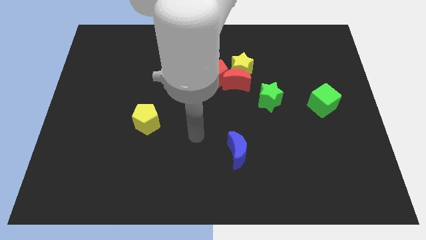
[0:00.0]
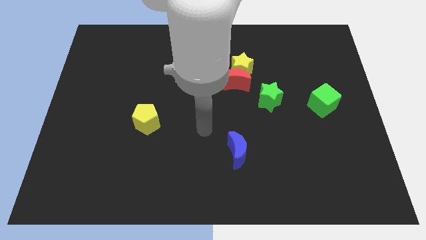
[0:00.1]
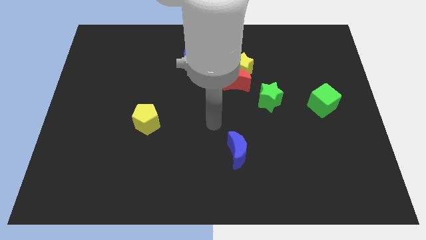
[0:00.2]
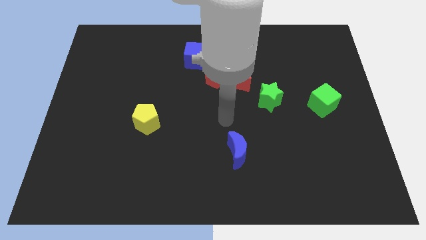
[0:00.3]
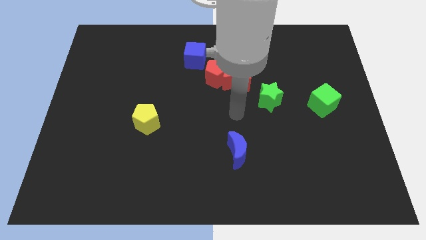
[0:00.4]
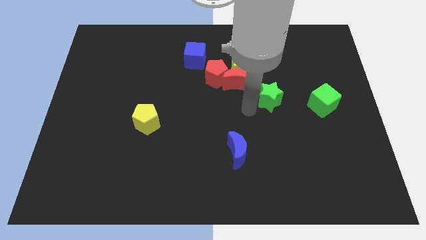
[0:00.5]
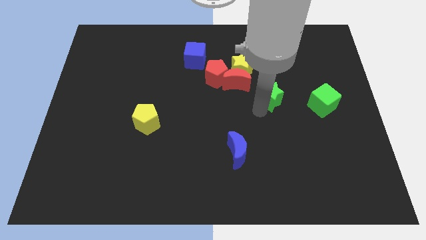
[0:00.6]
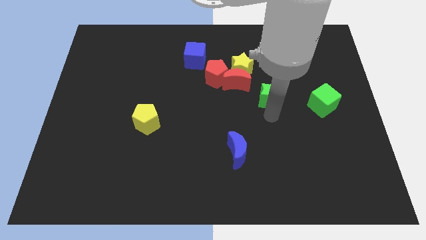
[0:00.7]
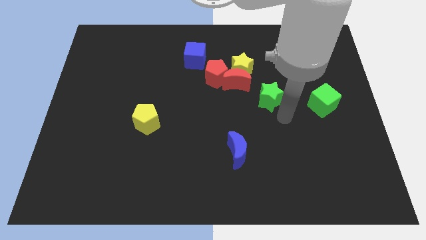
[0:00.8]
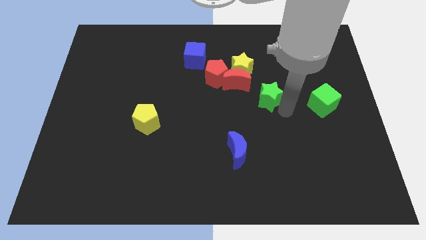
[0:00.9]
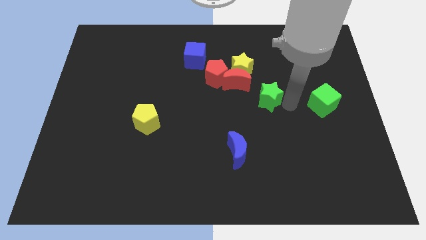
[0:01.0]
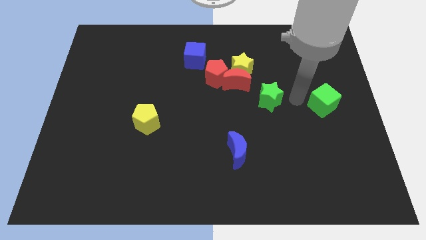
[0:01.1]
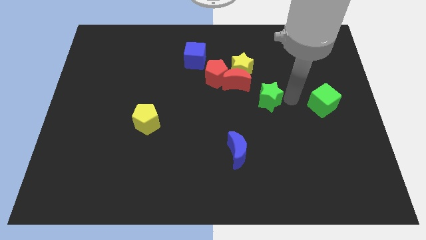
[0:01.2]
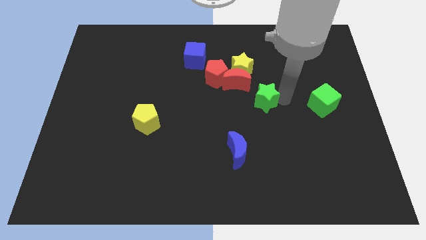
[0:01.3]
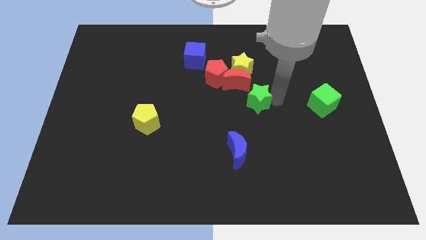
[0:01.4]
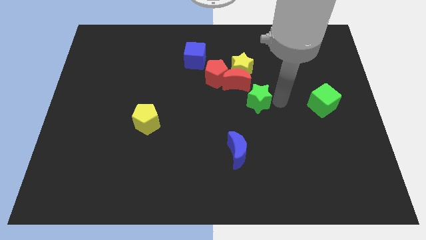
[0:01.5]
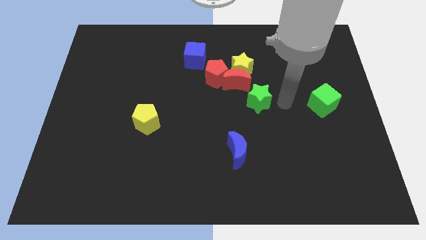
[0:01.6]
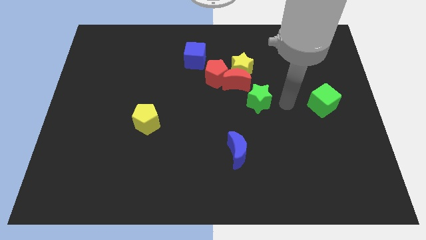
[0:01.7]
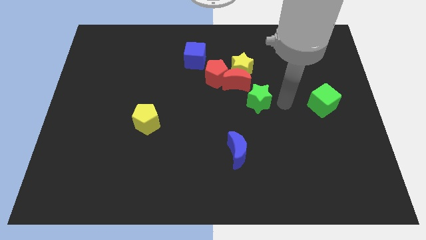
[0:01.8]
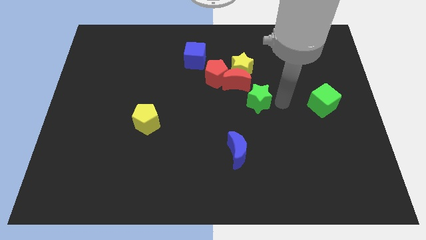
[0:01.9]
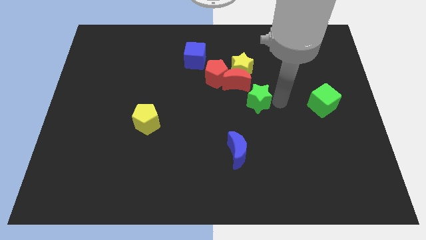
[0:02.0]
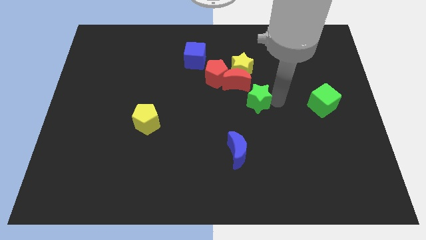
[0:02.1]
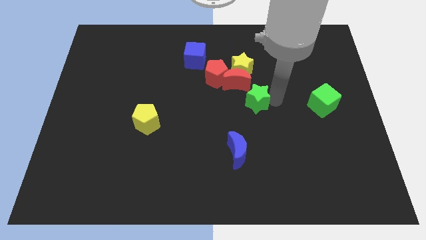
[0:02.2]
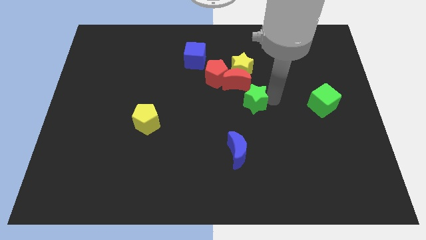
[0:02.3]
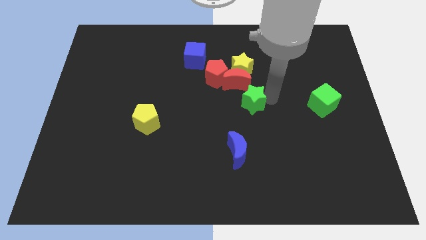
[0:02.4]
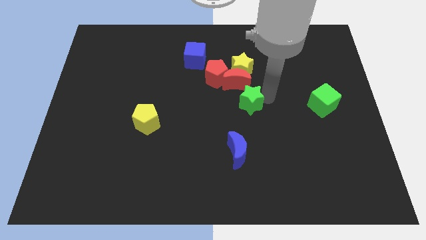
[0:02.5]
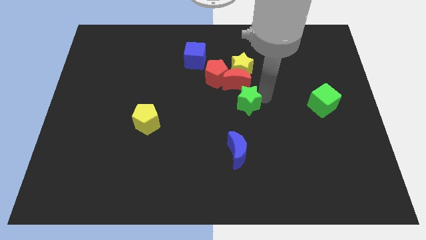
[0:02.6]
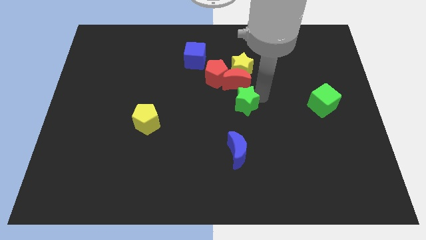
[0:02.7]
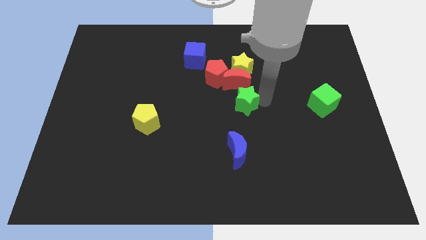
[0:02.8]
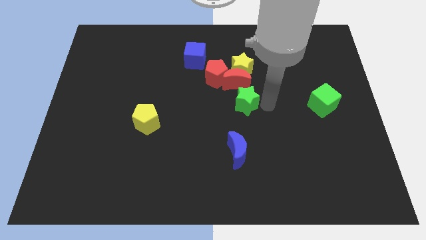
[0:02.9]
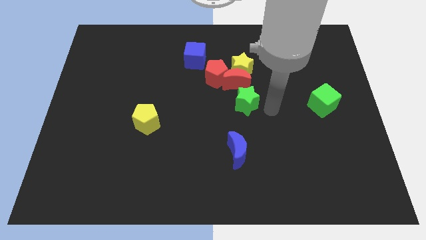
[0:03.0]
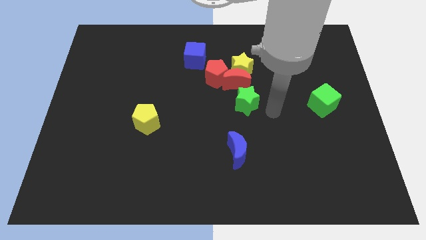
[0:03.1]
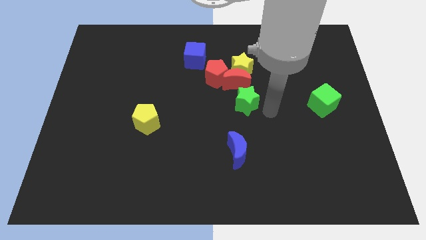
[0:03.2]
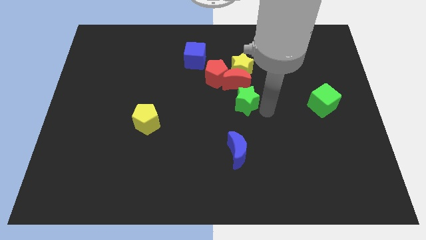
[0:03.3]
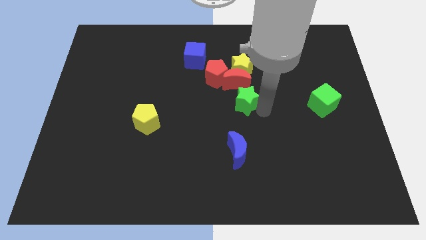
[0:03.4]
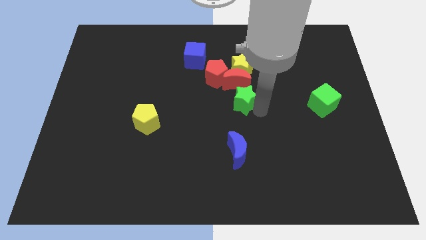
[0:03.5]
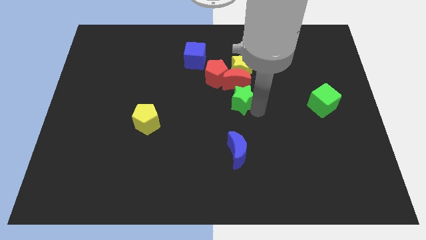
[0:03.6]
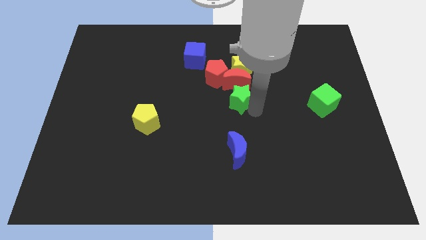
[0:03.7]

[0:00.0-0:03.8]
slightly move the green star left

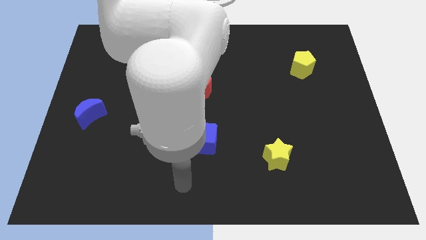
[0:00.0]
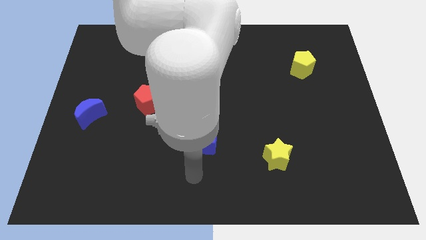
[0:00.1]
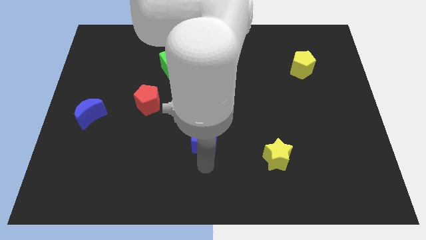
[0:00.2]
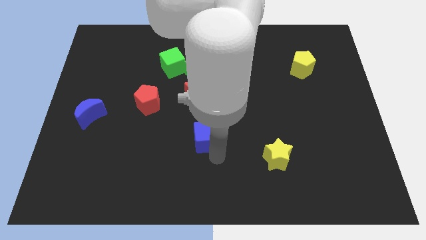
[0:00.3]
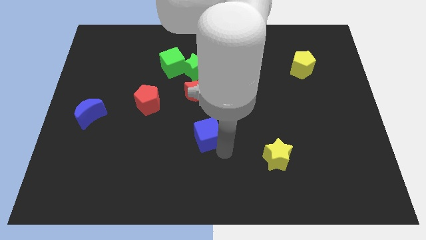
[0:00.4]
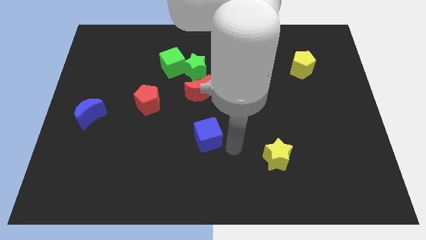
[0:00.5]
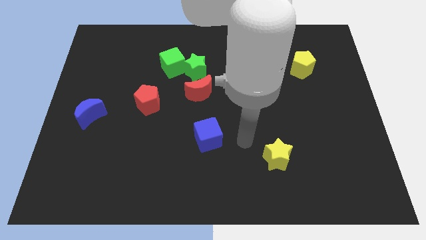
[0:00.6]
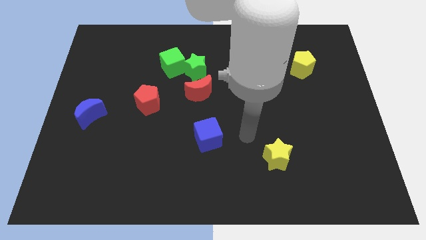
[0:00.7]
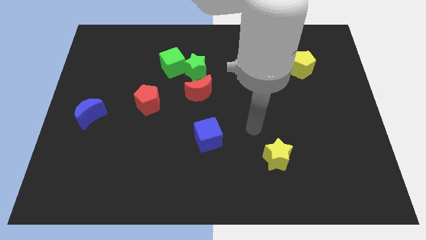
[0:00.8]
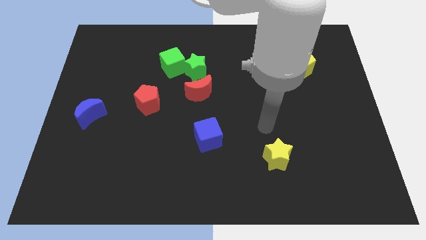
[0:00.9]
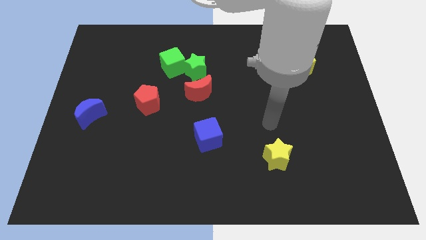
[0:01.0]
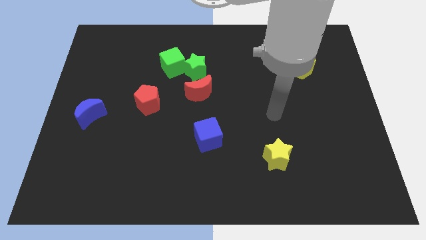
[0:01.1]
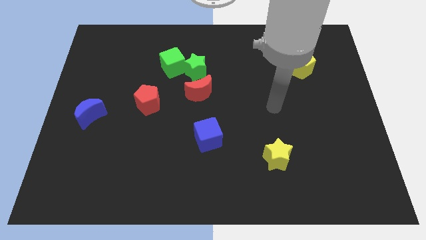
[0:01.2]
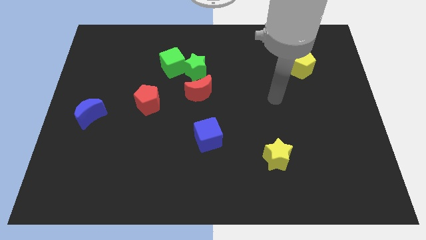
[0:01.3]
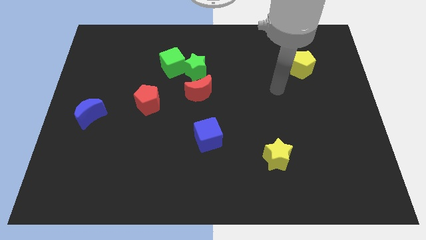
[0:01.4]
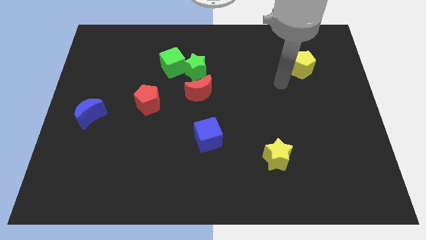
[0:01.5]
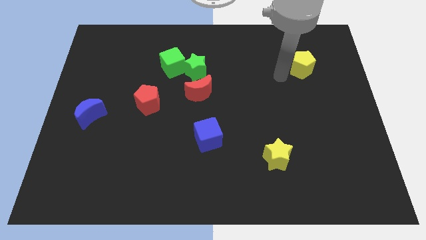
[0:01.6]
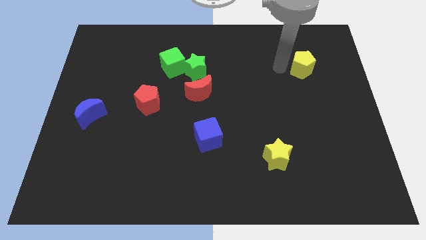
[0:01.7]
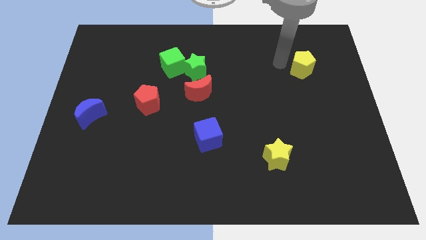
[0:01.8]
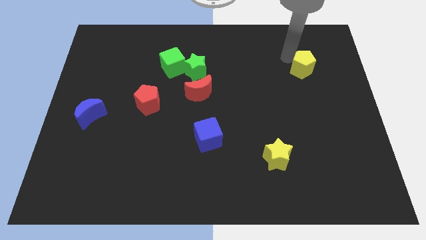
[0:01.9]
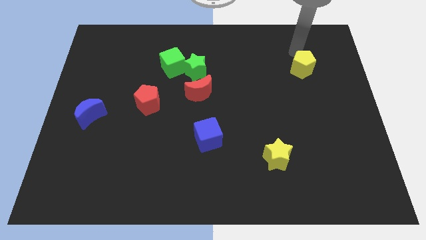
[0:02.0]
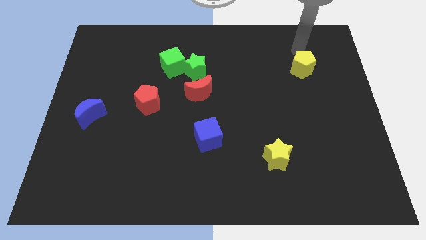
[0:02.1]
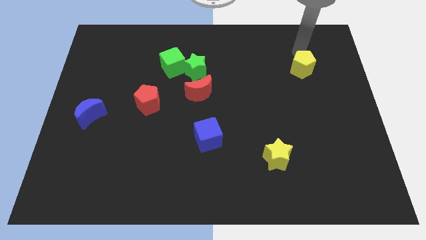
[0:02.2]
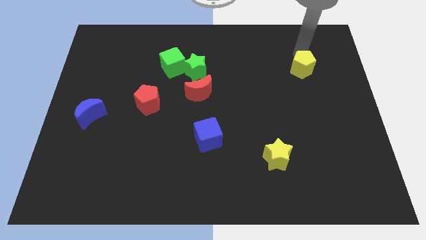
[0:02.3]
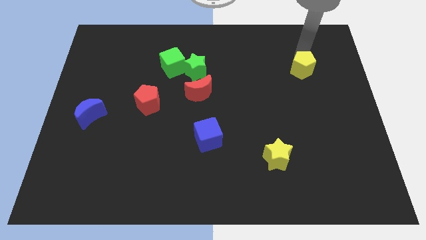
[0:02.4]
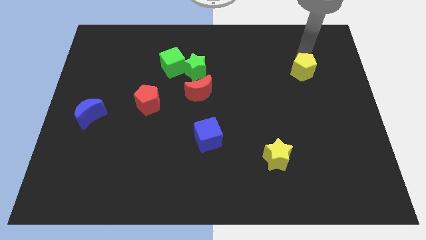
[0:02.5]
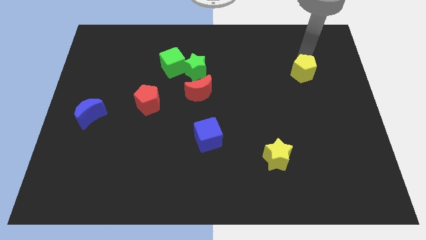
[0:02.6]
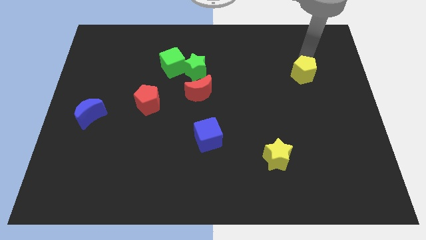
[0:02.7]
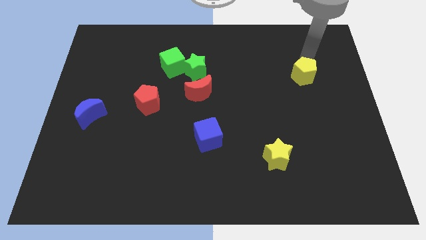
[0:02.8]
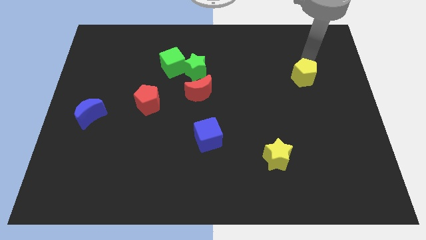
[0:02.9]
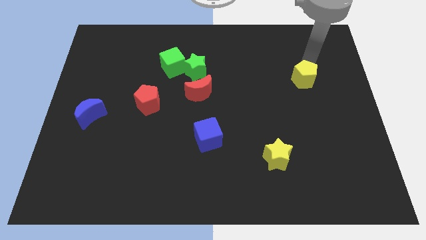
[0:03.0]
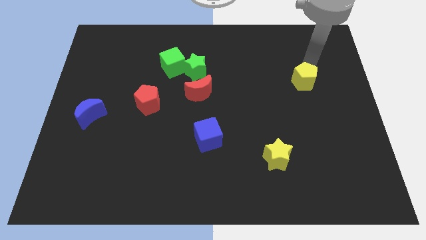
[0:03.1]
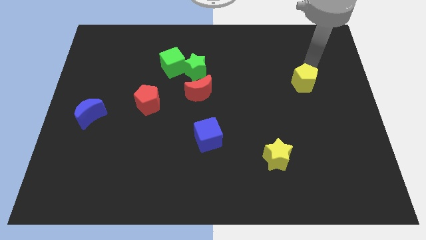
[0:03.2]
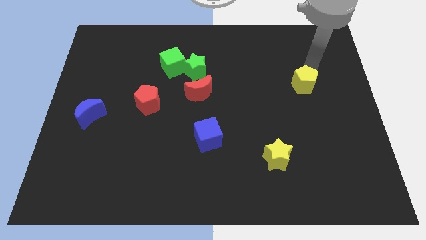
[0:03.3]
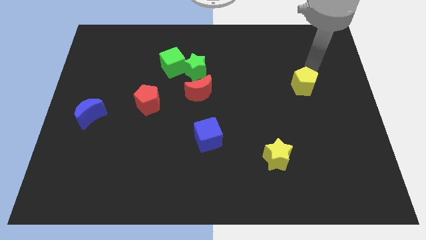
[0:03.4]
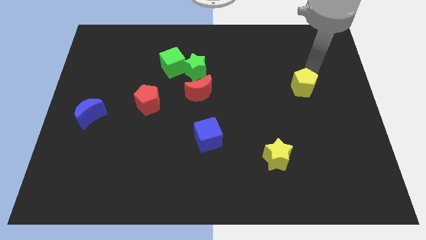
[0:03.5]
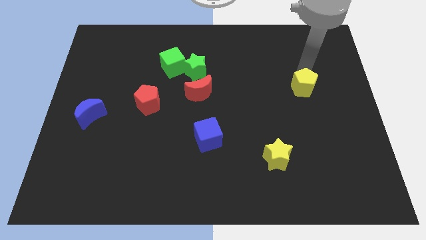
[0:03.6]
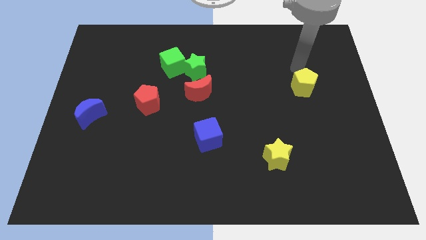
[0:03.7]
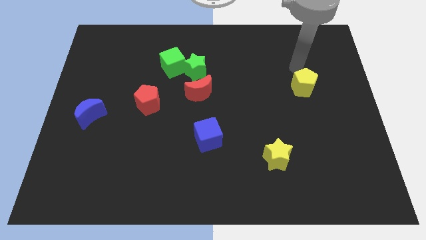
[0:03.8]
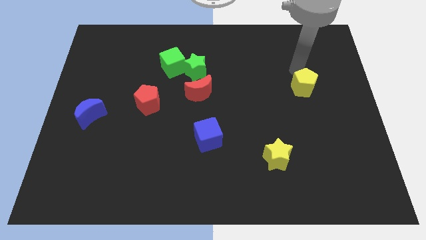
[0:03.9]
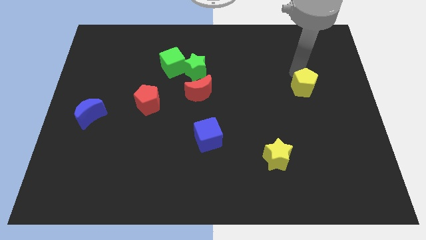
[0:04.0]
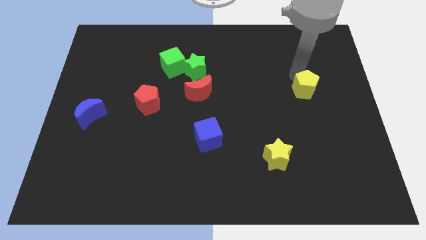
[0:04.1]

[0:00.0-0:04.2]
move the yellow pentagon downwards a little
